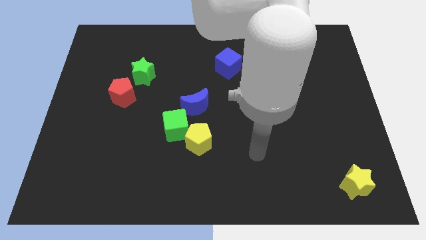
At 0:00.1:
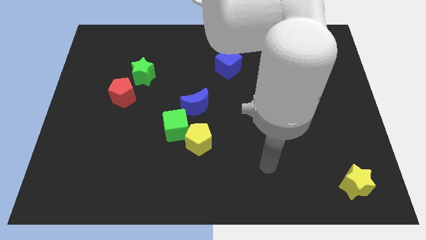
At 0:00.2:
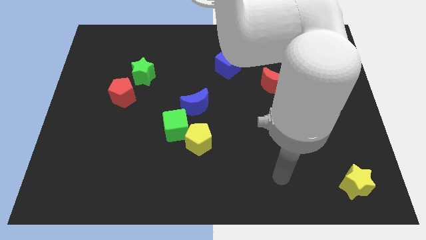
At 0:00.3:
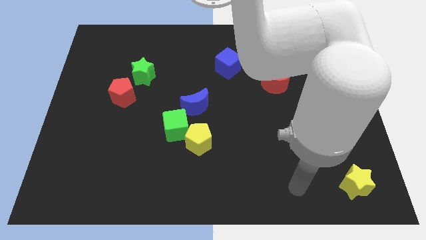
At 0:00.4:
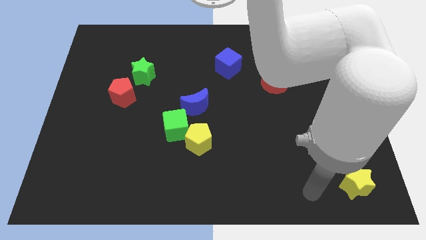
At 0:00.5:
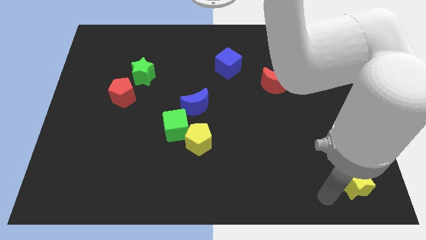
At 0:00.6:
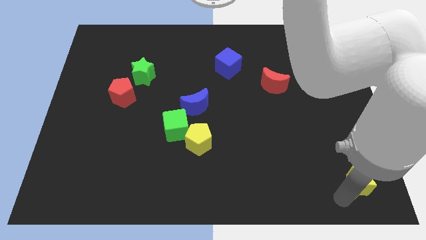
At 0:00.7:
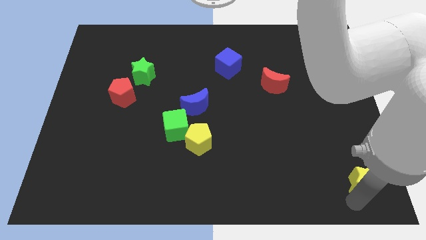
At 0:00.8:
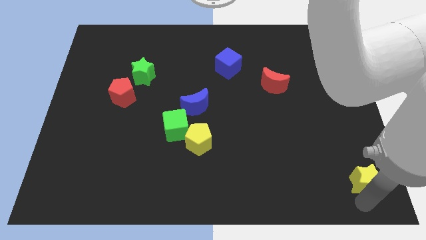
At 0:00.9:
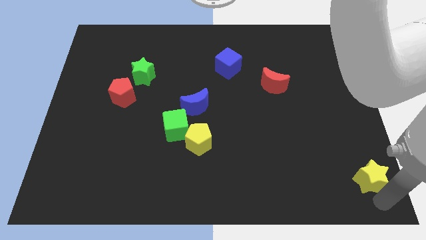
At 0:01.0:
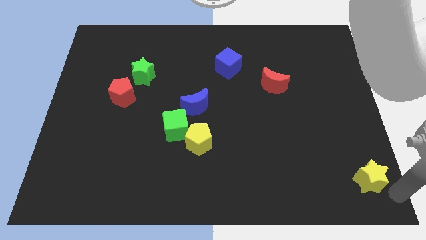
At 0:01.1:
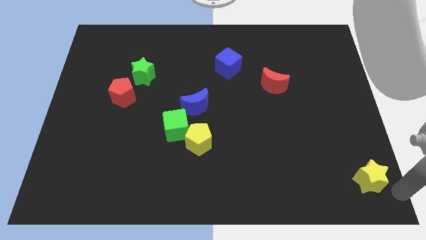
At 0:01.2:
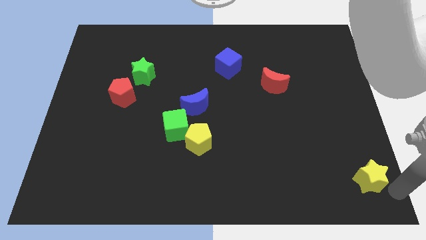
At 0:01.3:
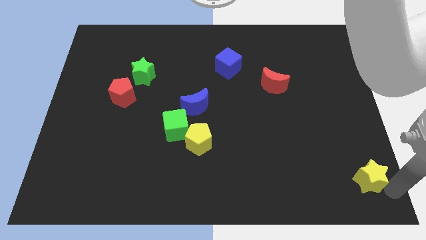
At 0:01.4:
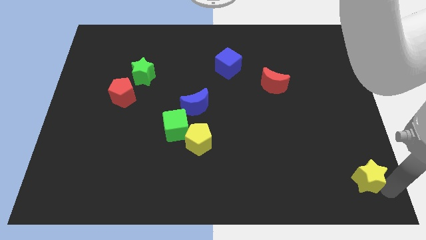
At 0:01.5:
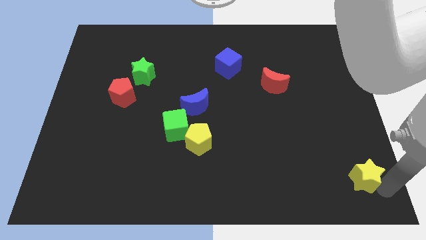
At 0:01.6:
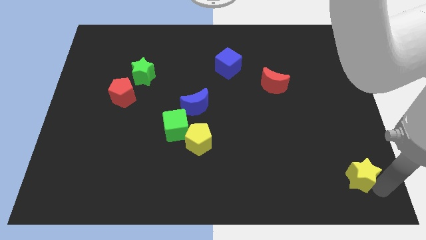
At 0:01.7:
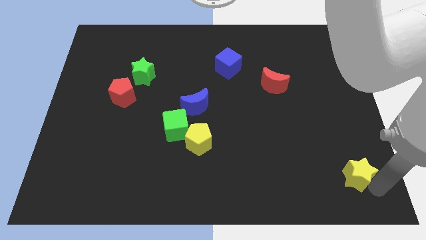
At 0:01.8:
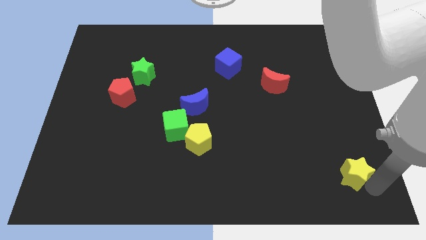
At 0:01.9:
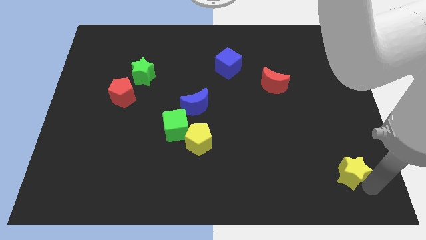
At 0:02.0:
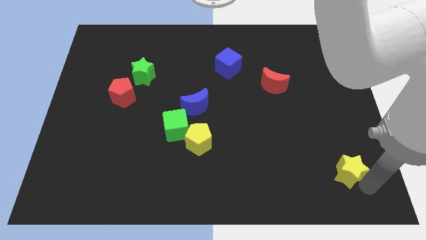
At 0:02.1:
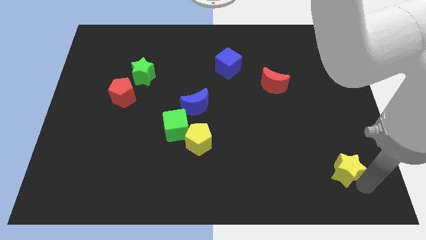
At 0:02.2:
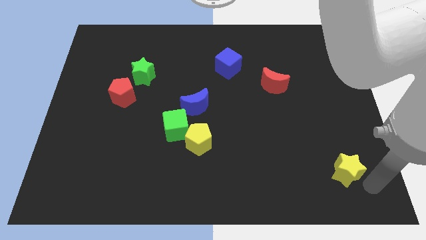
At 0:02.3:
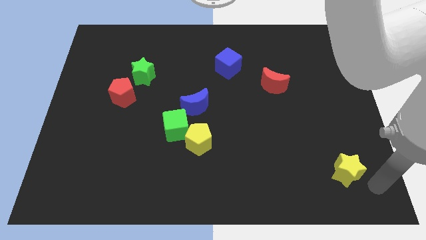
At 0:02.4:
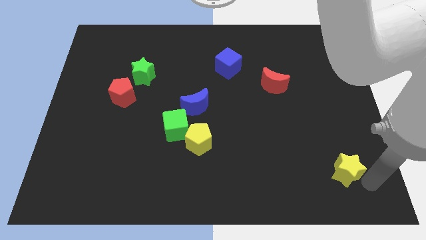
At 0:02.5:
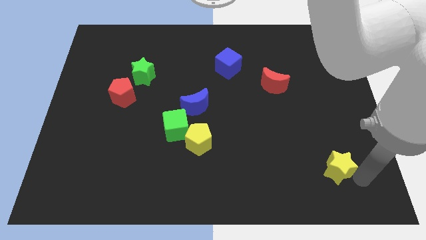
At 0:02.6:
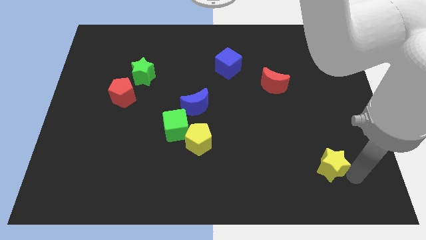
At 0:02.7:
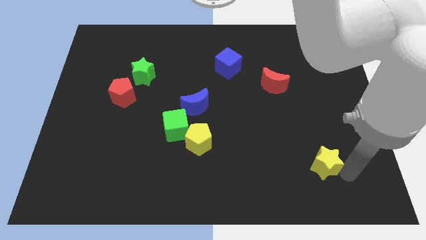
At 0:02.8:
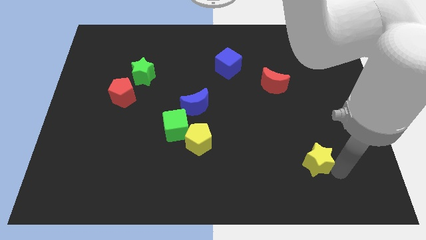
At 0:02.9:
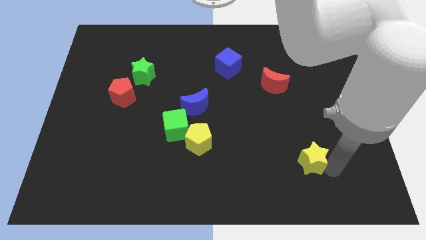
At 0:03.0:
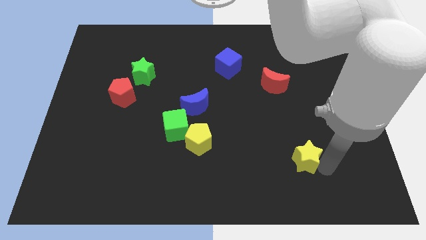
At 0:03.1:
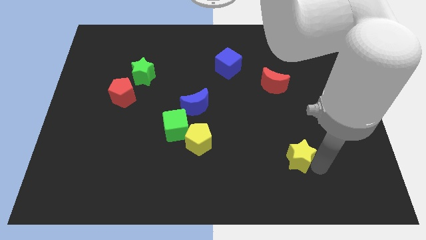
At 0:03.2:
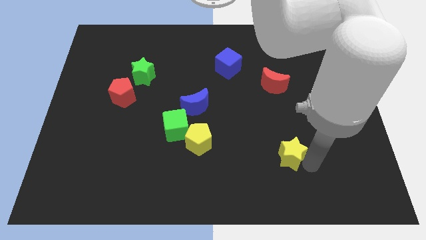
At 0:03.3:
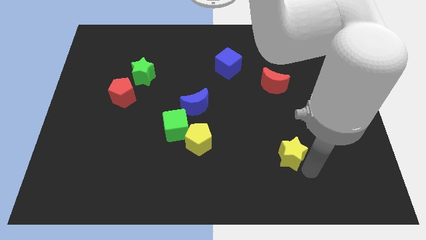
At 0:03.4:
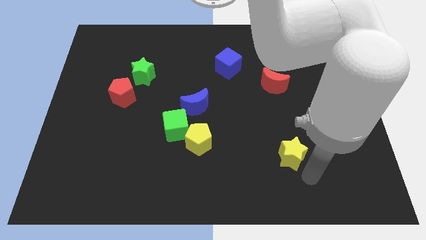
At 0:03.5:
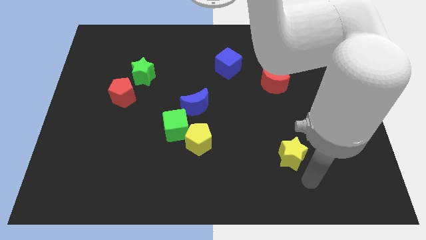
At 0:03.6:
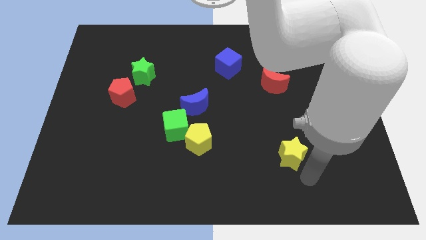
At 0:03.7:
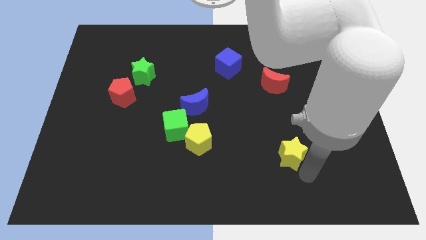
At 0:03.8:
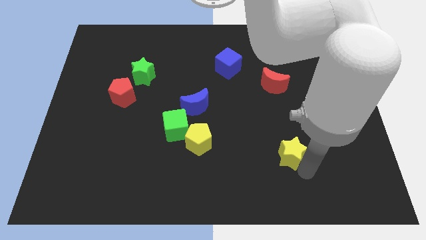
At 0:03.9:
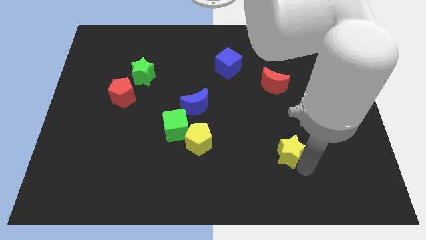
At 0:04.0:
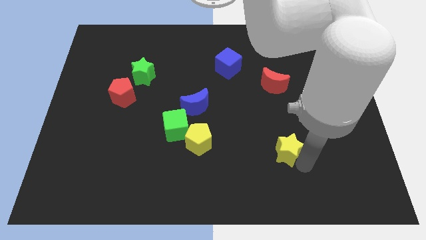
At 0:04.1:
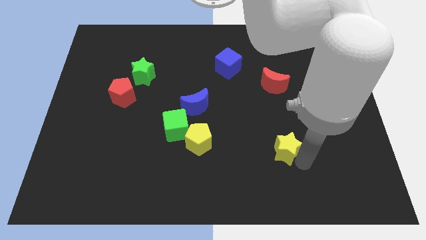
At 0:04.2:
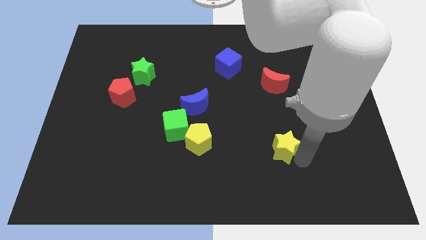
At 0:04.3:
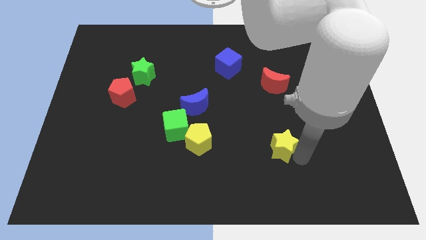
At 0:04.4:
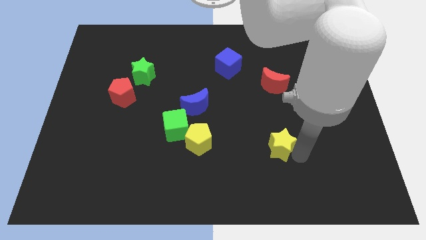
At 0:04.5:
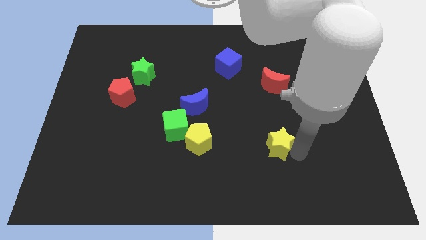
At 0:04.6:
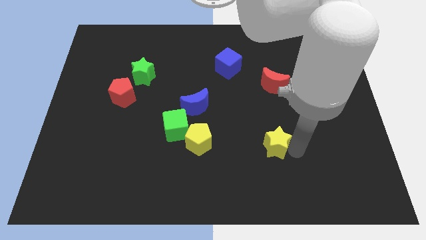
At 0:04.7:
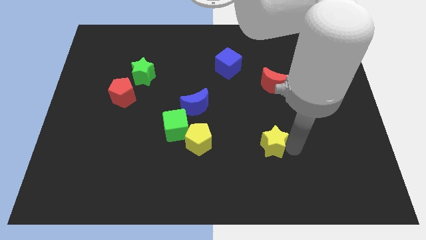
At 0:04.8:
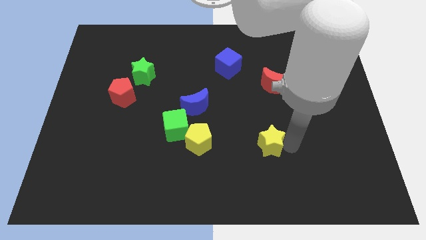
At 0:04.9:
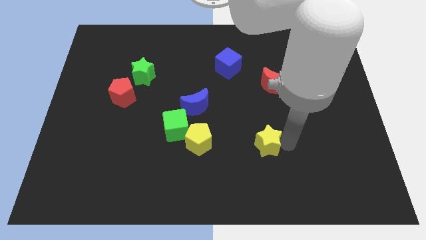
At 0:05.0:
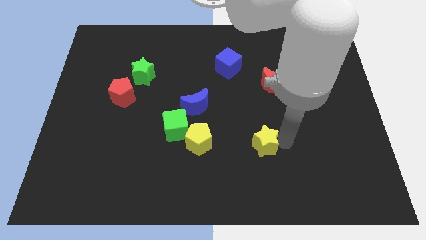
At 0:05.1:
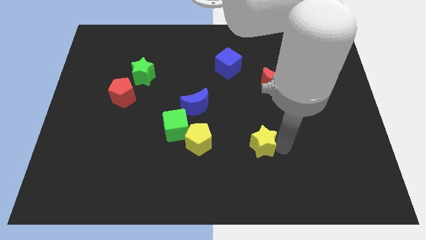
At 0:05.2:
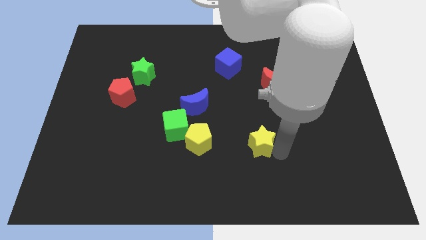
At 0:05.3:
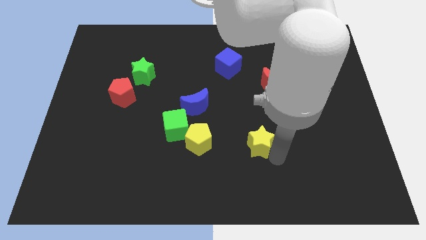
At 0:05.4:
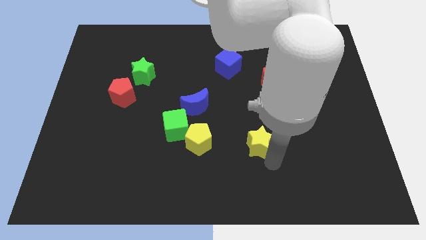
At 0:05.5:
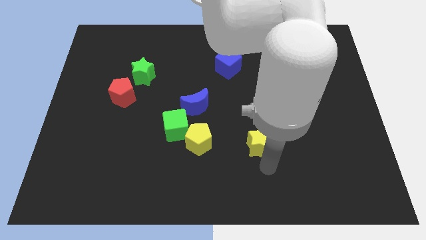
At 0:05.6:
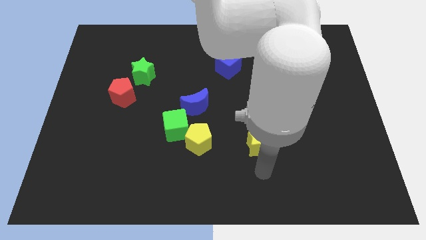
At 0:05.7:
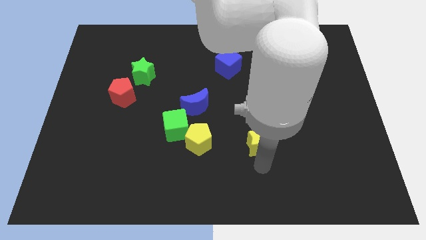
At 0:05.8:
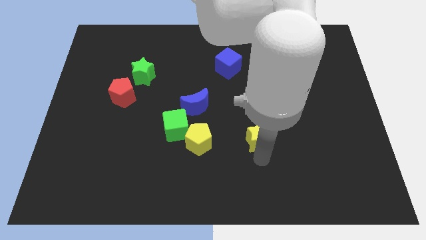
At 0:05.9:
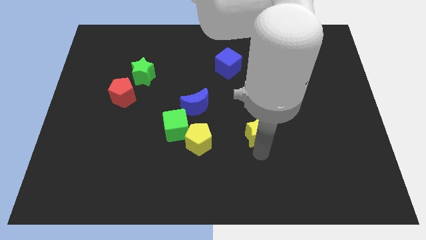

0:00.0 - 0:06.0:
move the yellow star diagonally up and to the left

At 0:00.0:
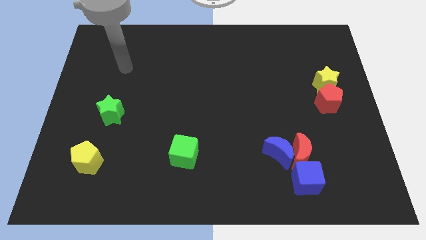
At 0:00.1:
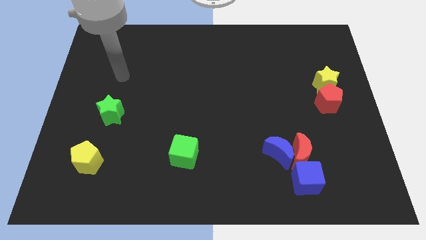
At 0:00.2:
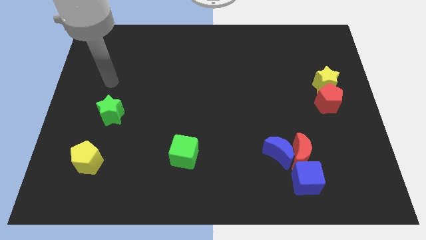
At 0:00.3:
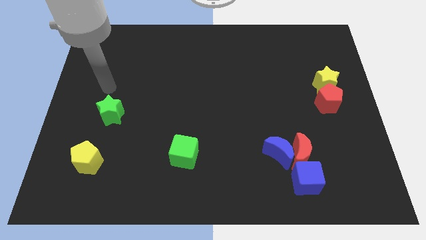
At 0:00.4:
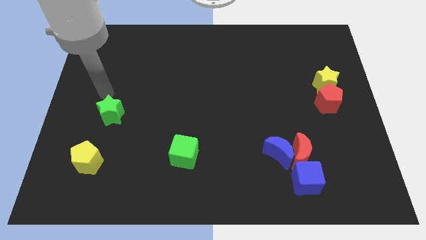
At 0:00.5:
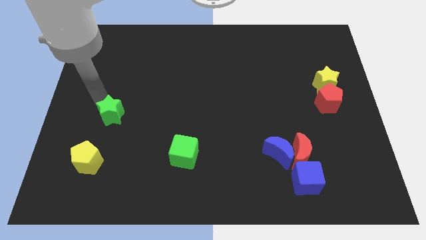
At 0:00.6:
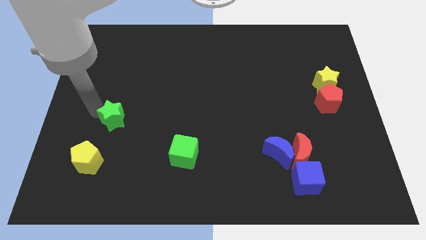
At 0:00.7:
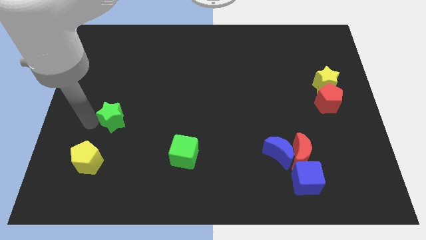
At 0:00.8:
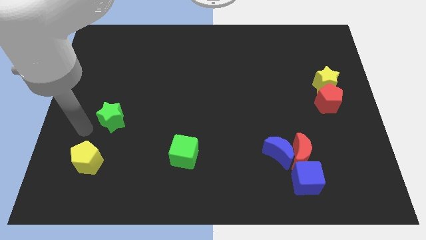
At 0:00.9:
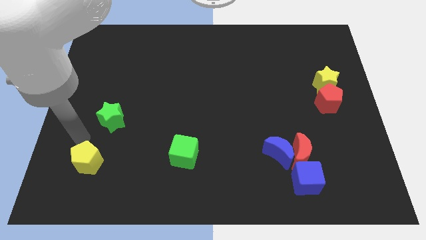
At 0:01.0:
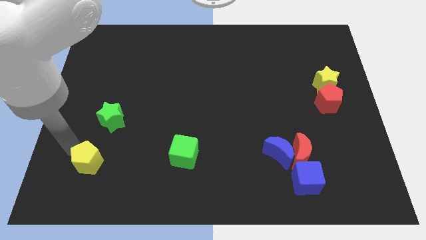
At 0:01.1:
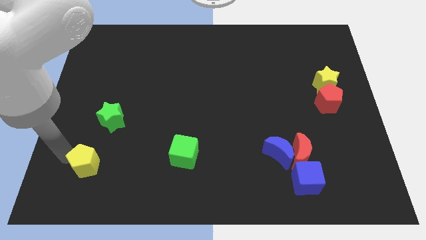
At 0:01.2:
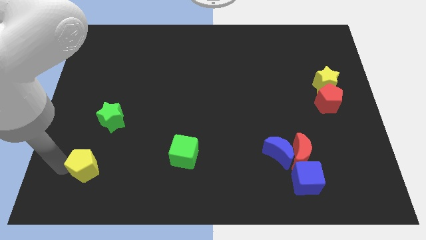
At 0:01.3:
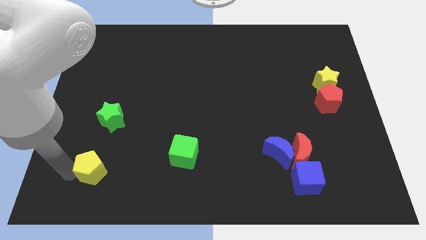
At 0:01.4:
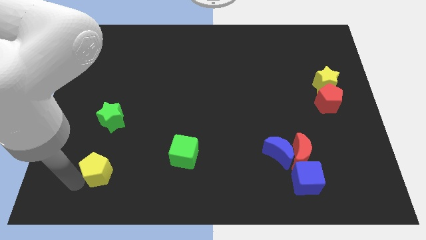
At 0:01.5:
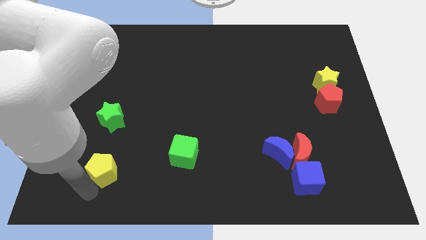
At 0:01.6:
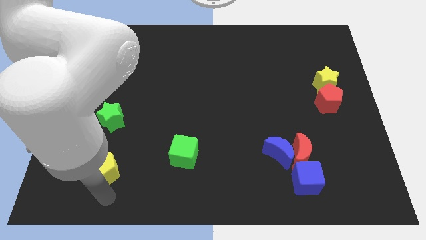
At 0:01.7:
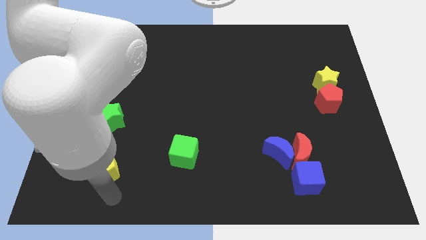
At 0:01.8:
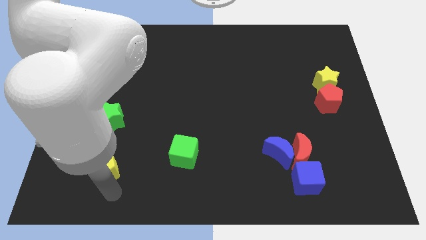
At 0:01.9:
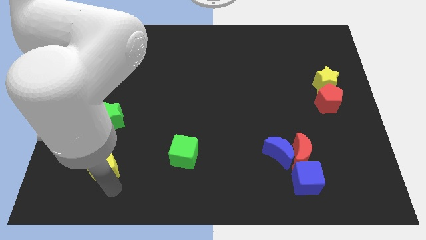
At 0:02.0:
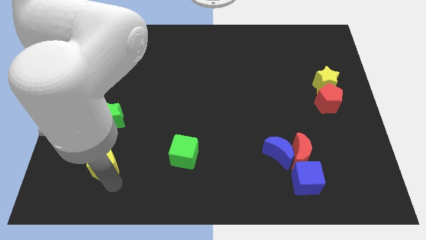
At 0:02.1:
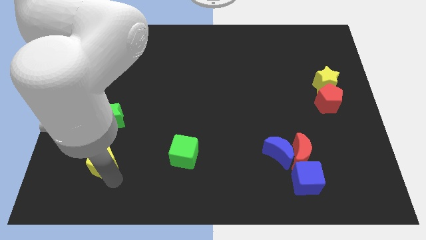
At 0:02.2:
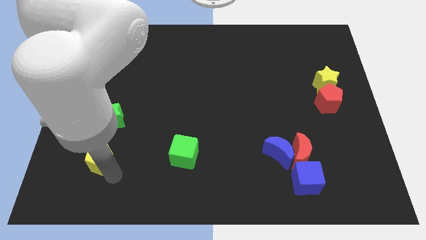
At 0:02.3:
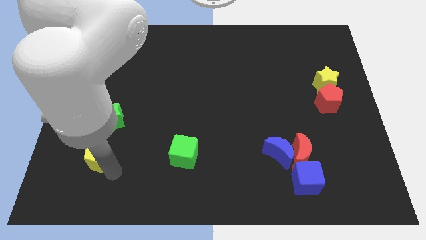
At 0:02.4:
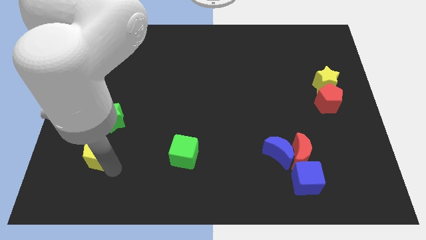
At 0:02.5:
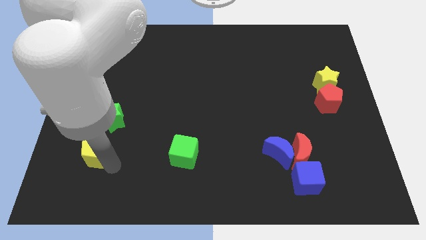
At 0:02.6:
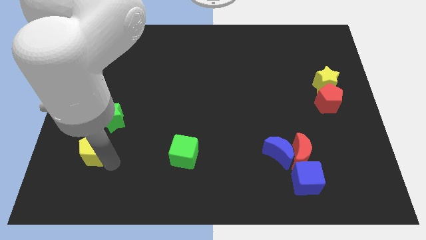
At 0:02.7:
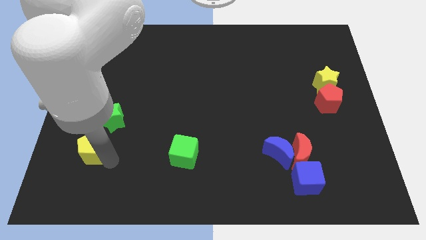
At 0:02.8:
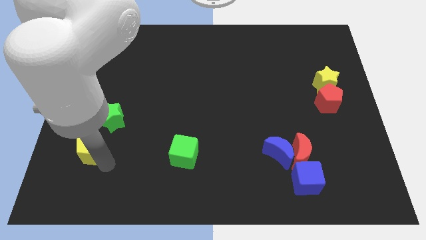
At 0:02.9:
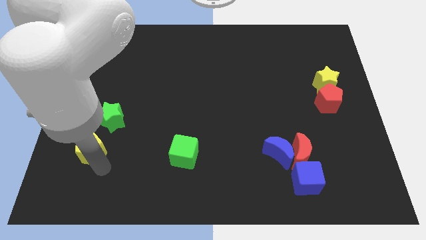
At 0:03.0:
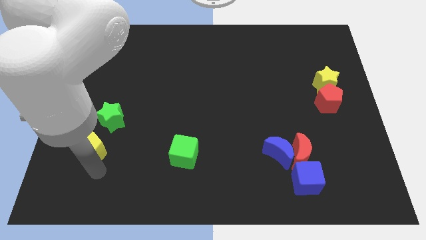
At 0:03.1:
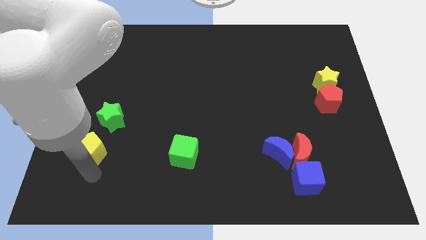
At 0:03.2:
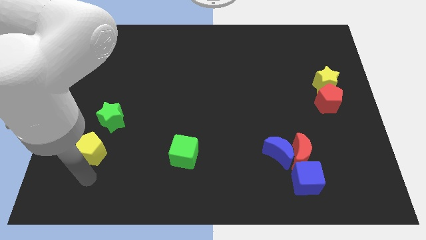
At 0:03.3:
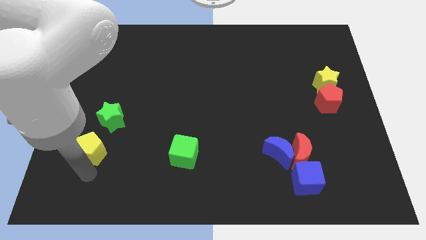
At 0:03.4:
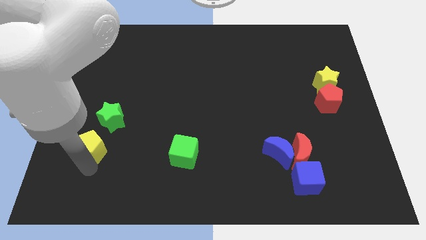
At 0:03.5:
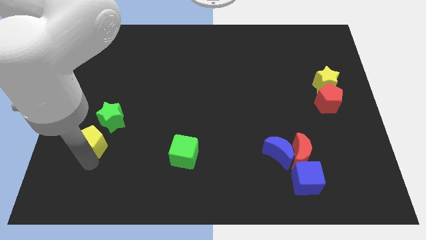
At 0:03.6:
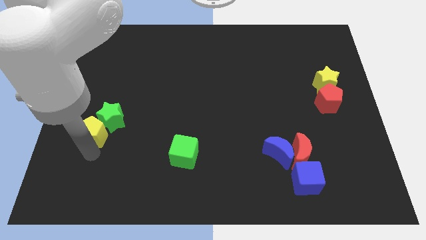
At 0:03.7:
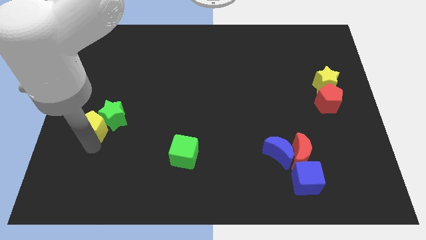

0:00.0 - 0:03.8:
slightly move the yellow pentagon upwards
